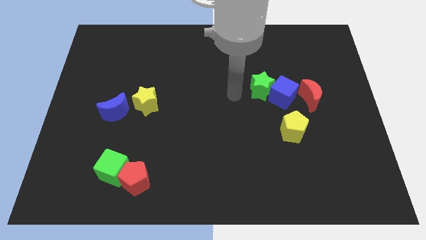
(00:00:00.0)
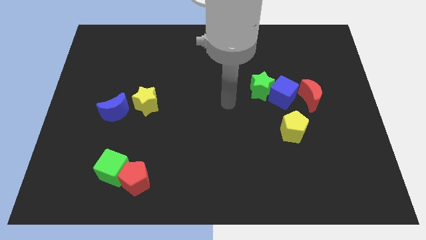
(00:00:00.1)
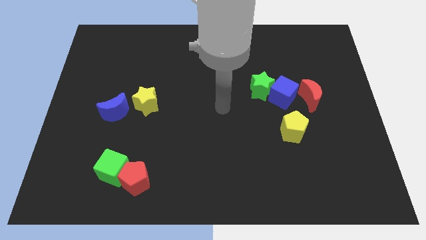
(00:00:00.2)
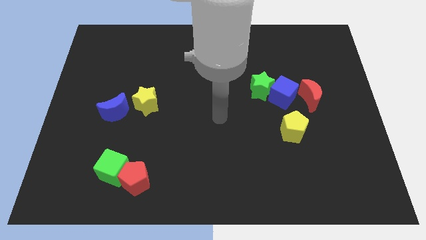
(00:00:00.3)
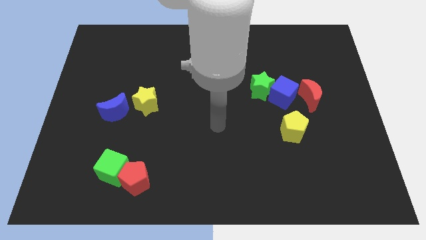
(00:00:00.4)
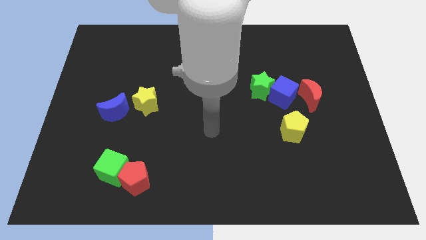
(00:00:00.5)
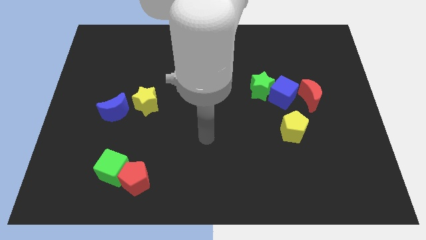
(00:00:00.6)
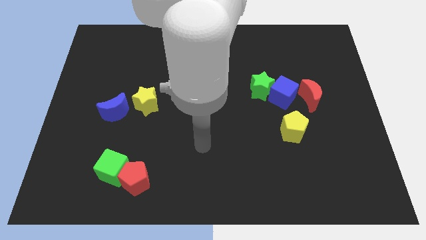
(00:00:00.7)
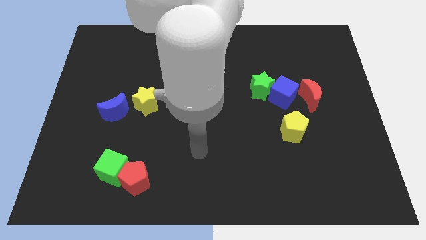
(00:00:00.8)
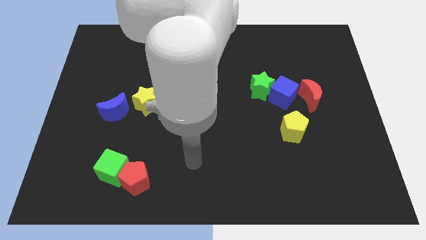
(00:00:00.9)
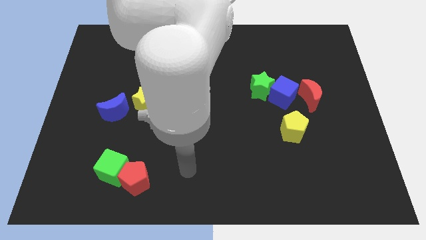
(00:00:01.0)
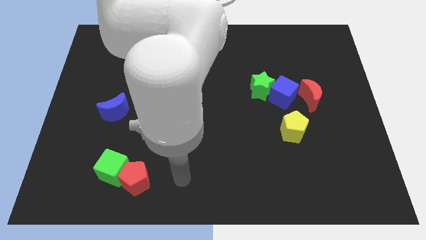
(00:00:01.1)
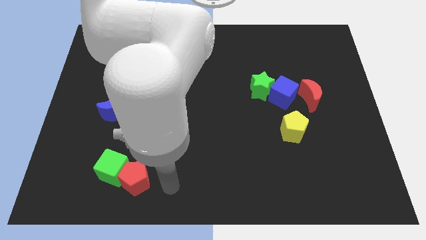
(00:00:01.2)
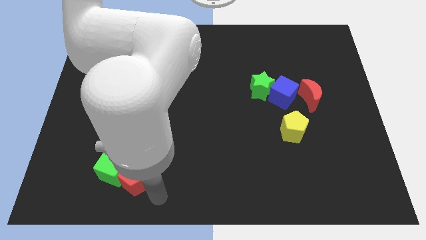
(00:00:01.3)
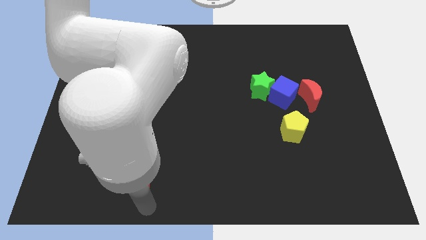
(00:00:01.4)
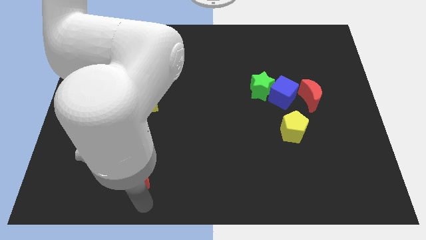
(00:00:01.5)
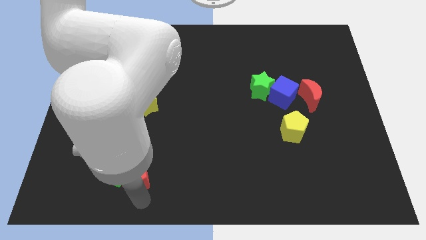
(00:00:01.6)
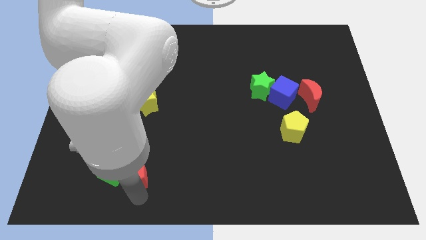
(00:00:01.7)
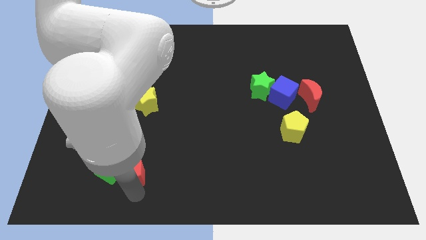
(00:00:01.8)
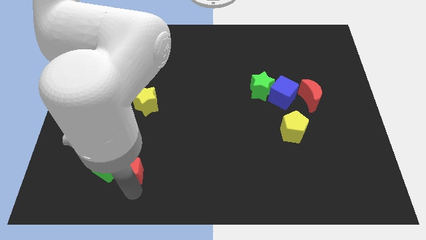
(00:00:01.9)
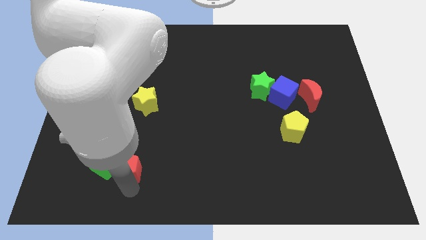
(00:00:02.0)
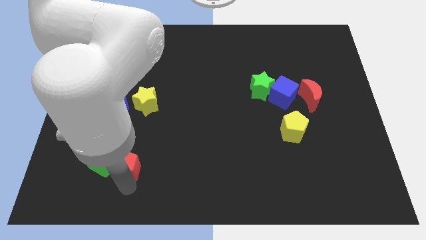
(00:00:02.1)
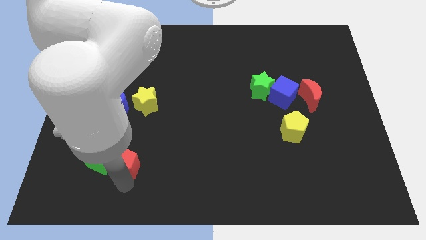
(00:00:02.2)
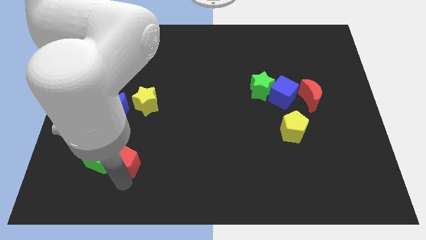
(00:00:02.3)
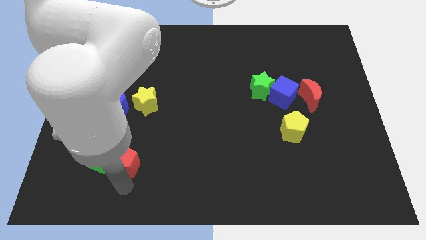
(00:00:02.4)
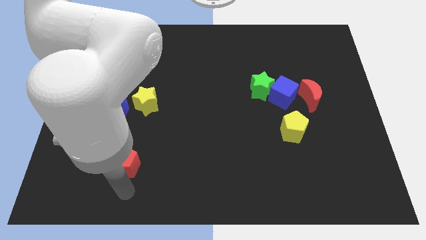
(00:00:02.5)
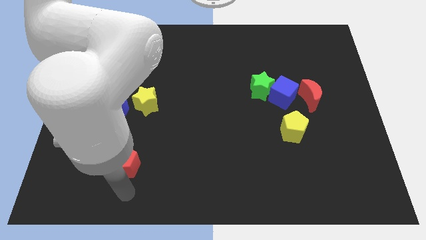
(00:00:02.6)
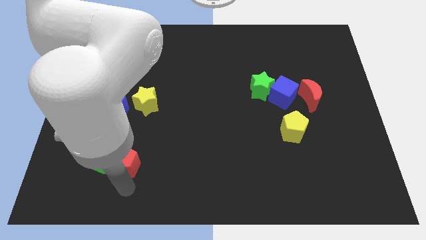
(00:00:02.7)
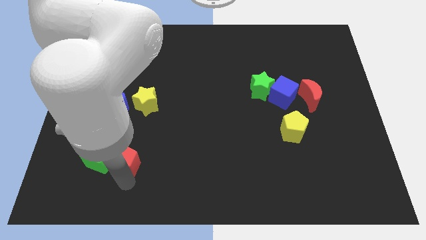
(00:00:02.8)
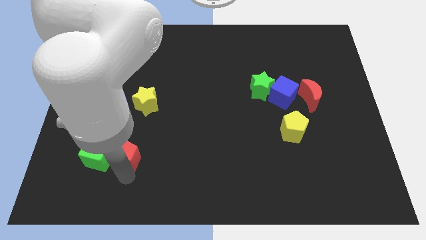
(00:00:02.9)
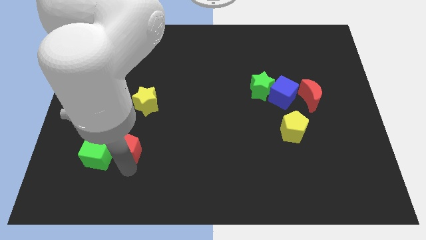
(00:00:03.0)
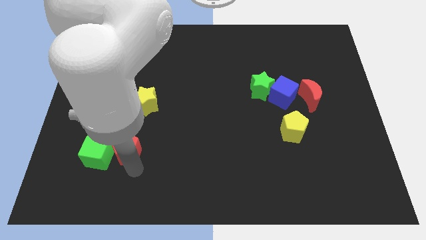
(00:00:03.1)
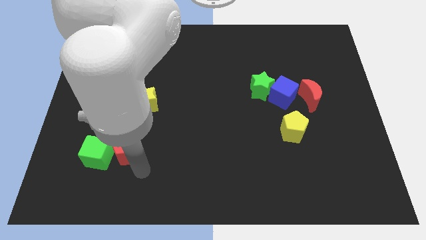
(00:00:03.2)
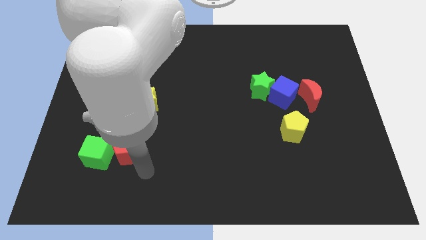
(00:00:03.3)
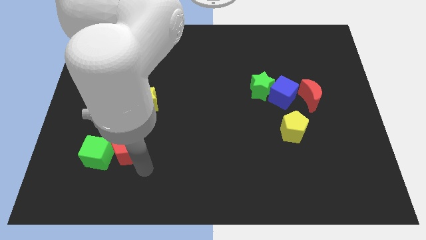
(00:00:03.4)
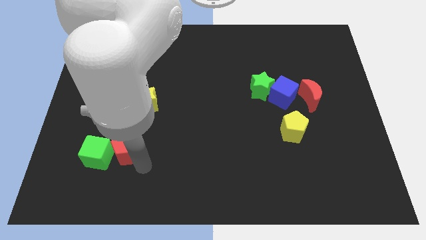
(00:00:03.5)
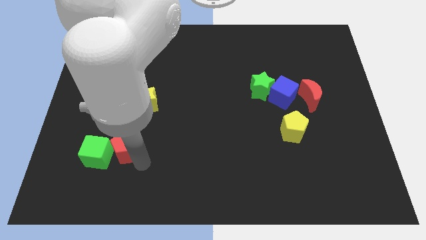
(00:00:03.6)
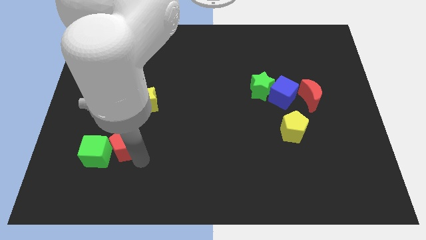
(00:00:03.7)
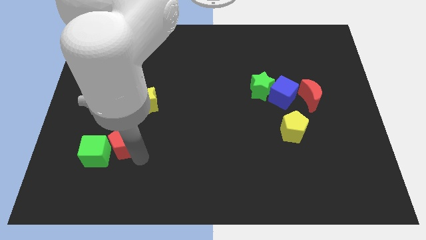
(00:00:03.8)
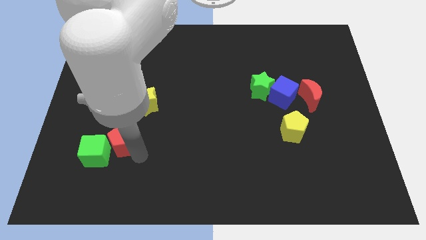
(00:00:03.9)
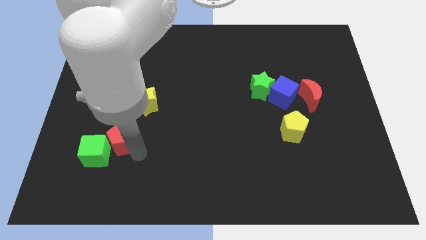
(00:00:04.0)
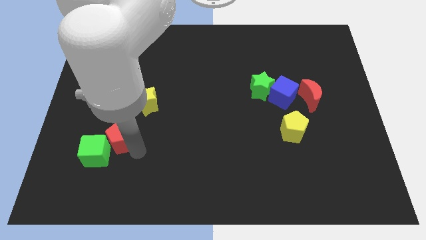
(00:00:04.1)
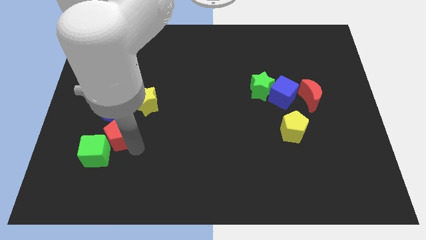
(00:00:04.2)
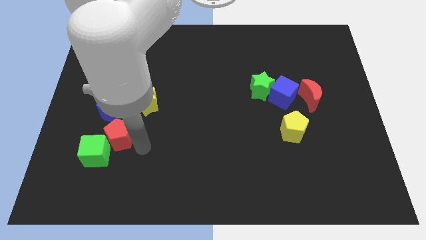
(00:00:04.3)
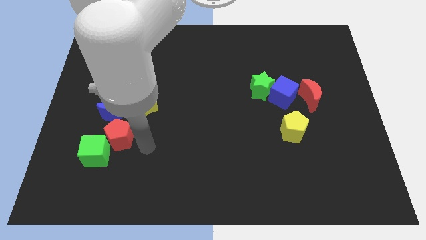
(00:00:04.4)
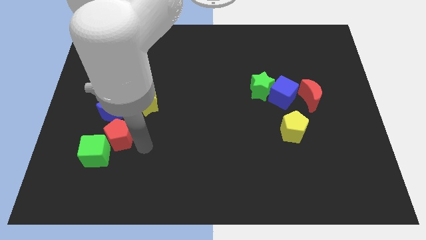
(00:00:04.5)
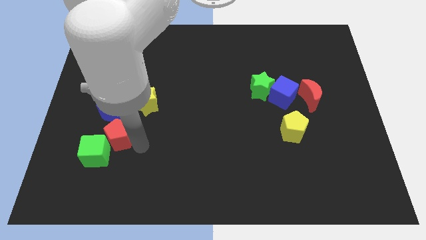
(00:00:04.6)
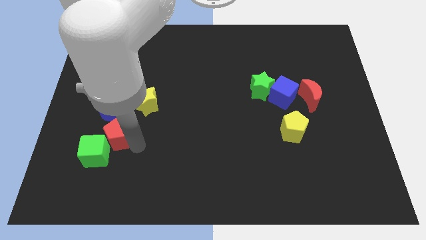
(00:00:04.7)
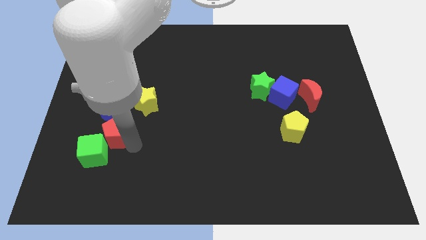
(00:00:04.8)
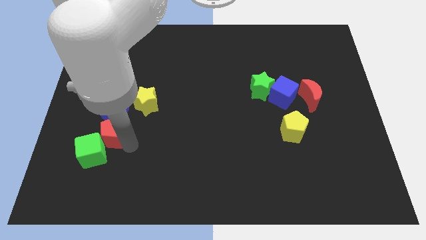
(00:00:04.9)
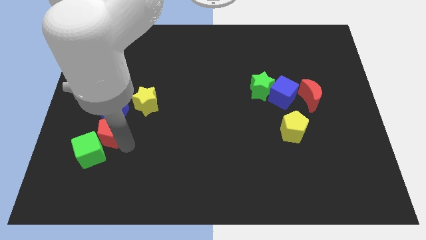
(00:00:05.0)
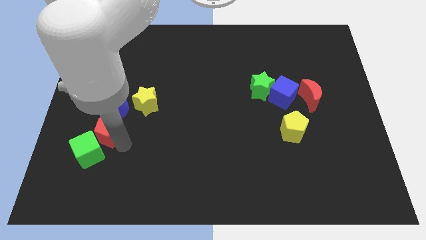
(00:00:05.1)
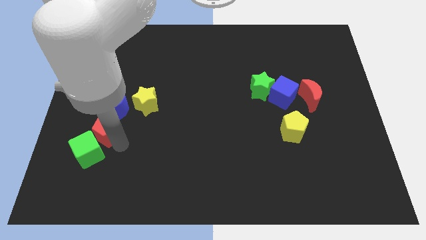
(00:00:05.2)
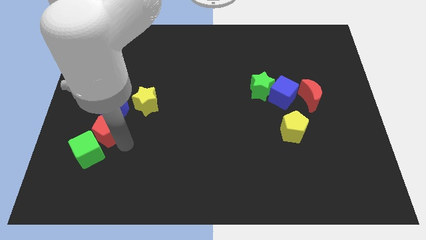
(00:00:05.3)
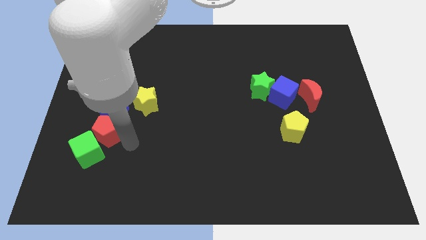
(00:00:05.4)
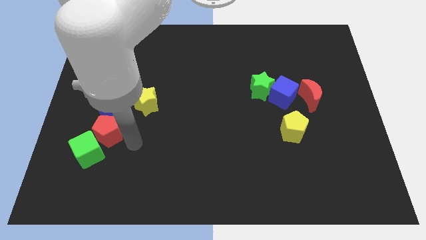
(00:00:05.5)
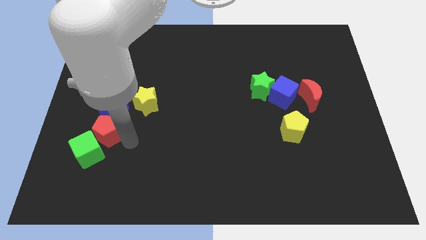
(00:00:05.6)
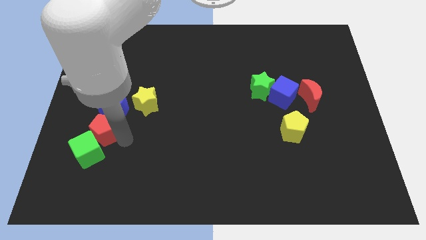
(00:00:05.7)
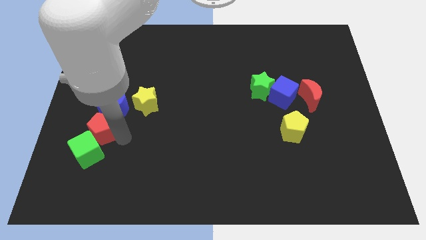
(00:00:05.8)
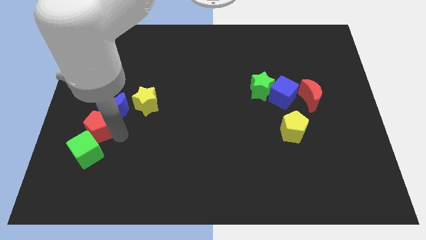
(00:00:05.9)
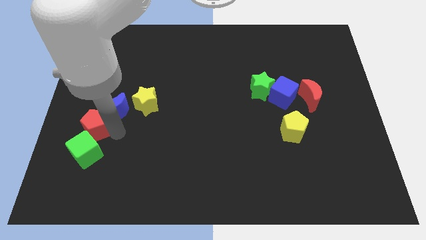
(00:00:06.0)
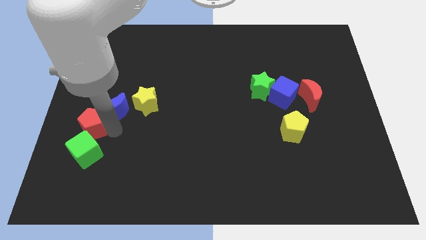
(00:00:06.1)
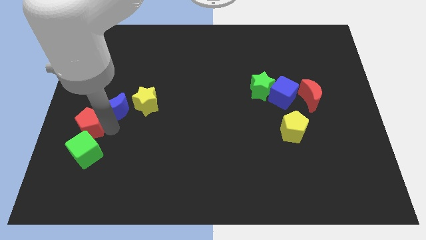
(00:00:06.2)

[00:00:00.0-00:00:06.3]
move the red pentagon to the center left
